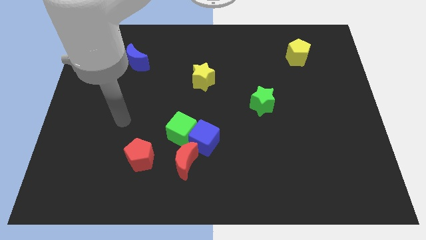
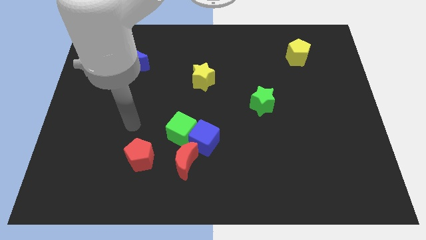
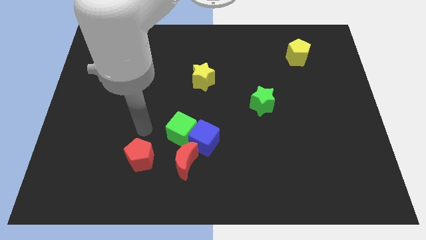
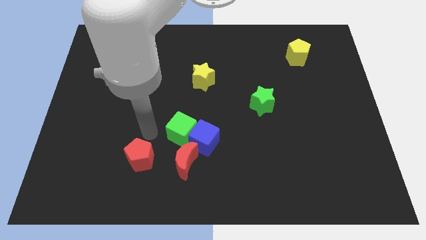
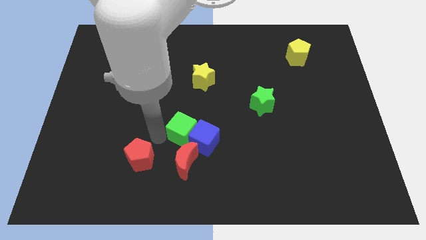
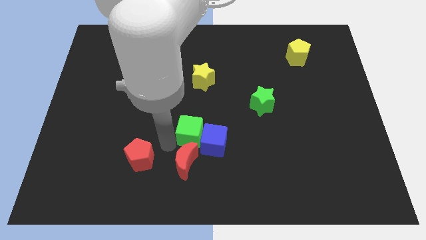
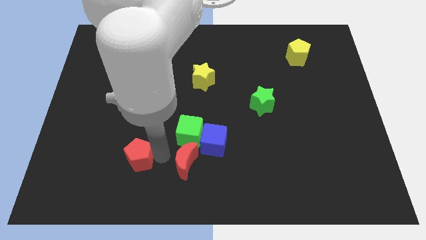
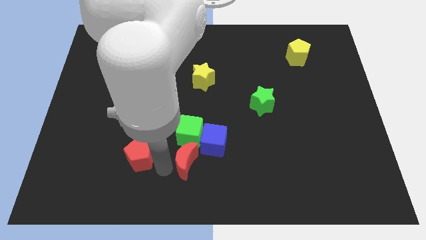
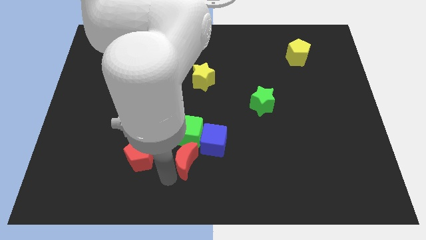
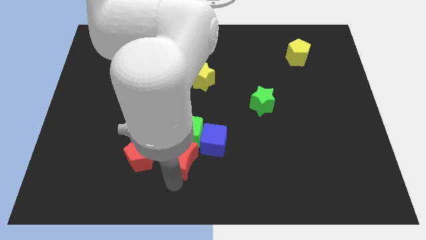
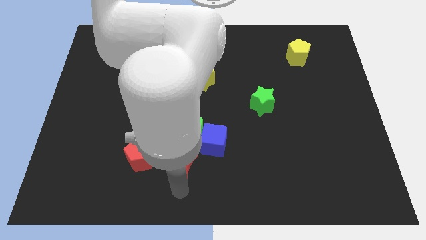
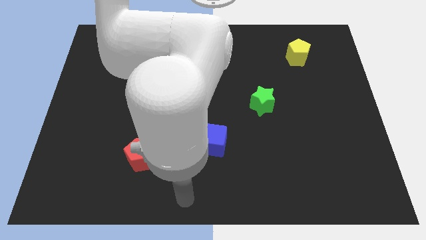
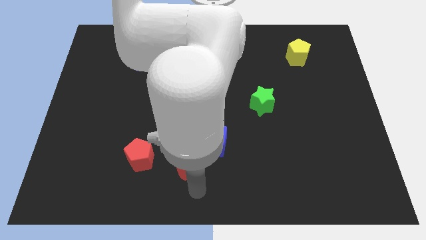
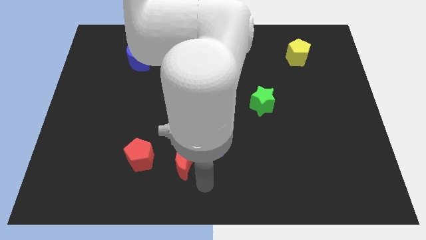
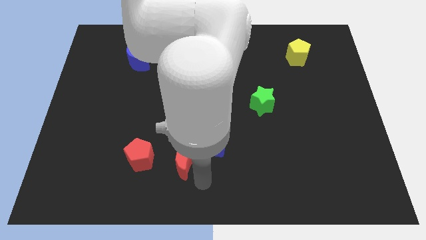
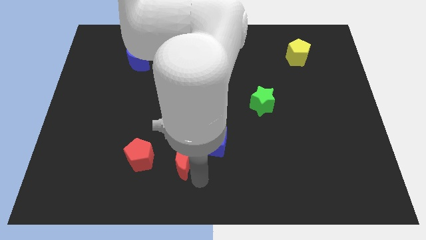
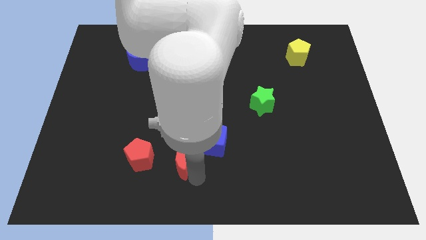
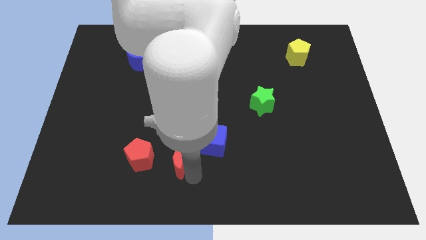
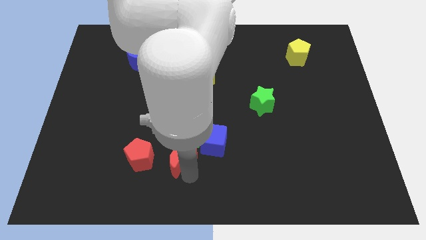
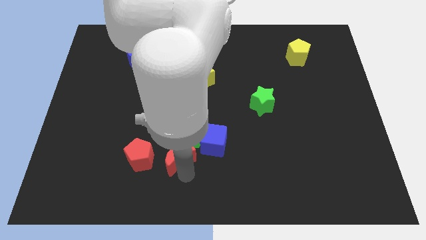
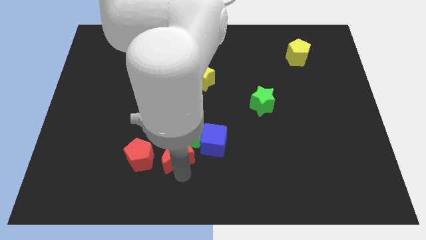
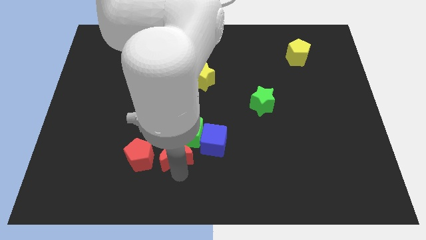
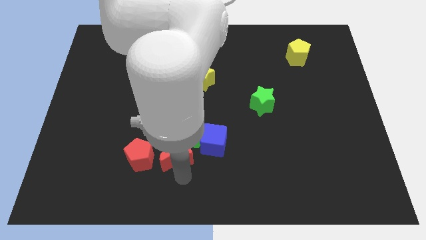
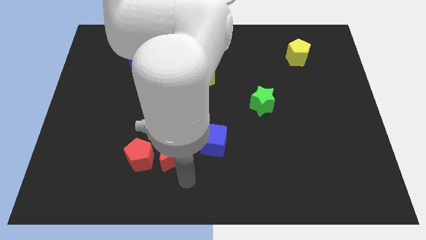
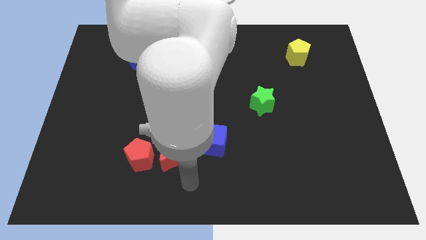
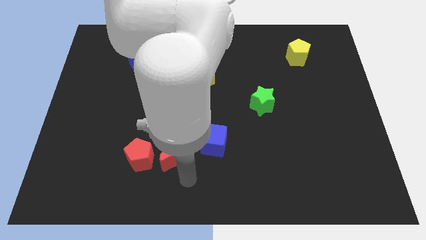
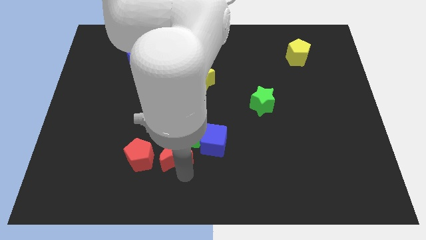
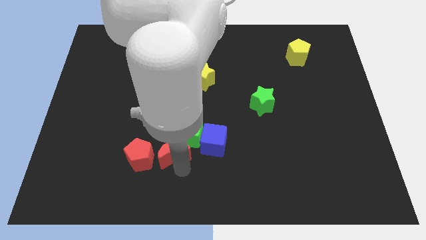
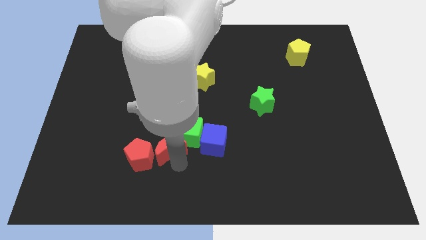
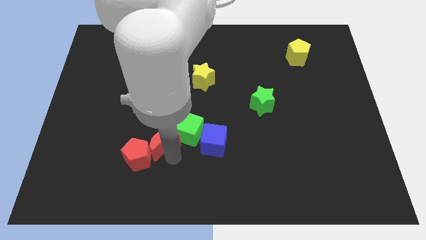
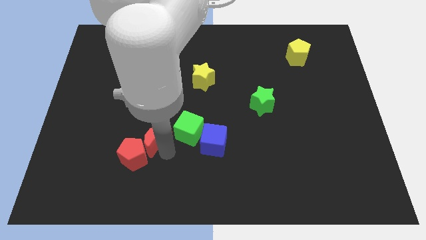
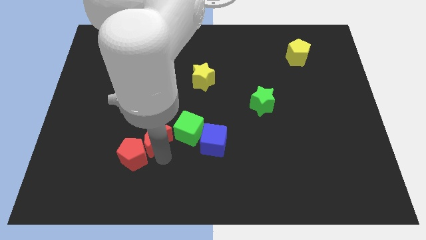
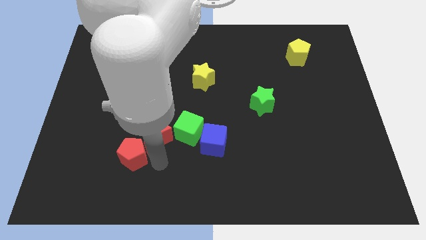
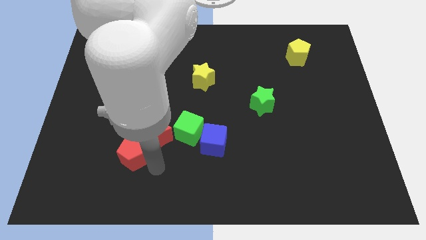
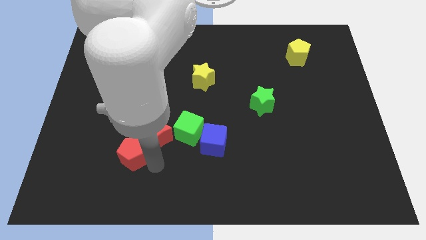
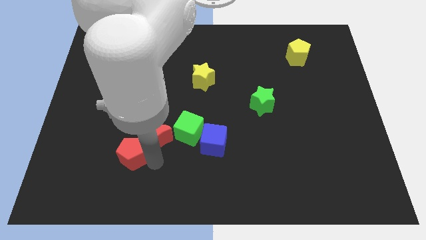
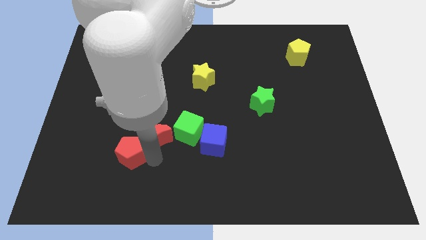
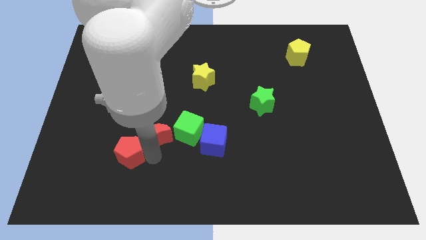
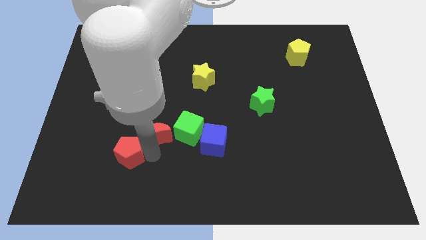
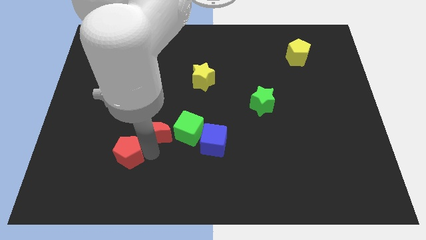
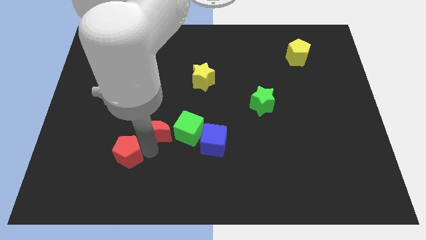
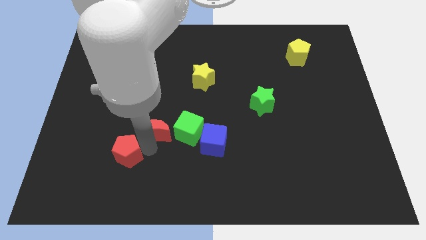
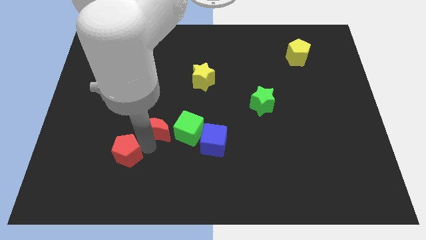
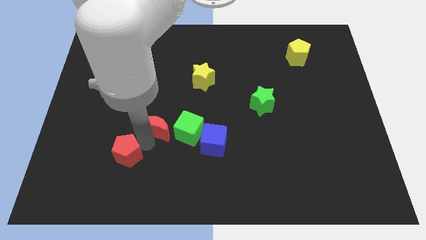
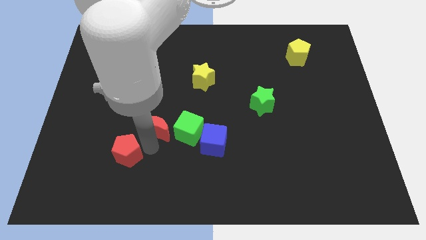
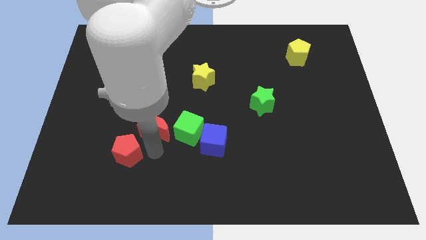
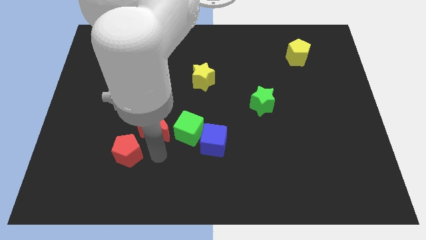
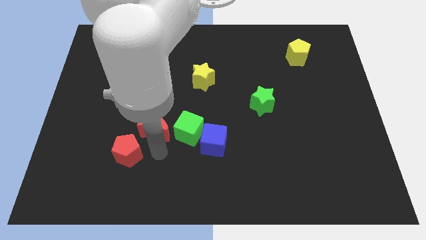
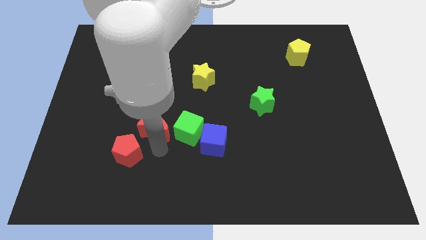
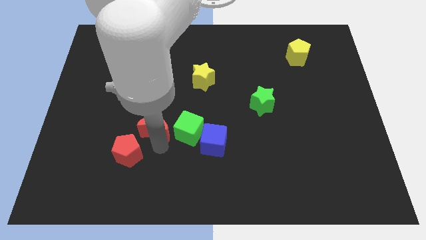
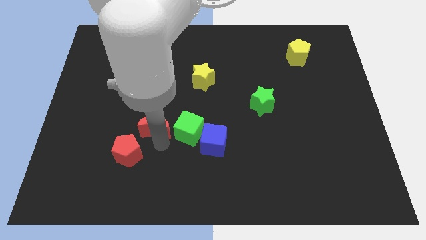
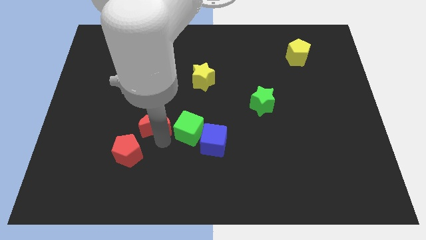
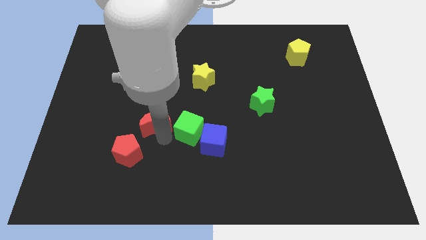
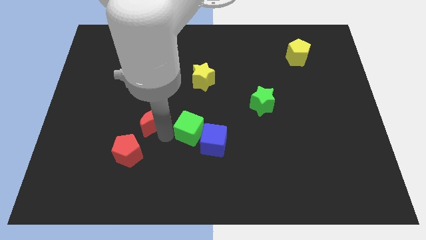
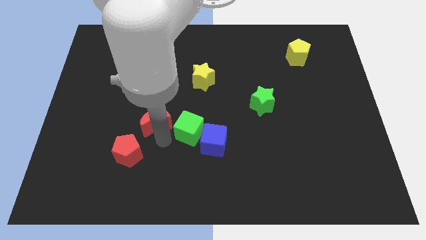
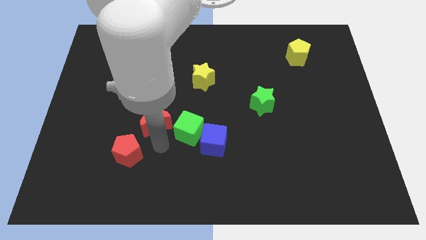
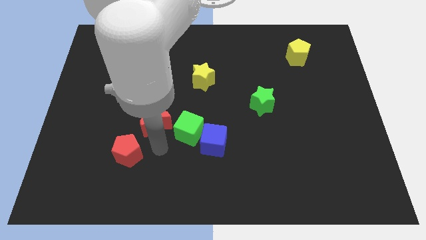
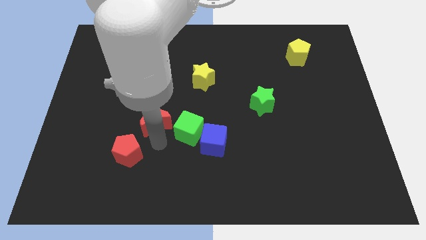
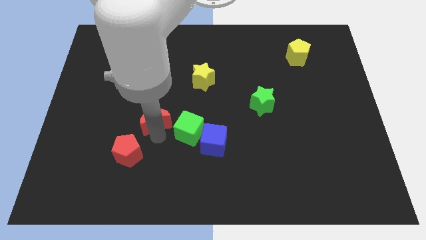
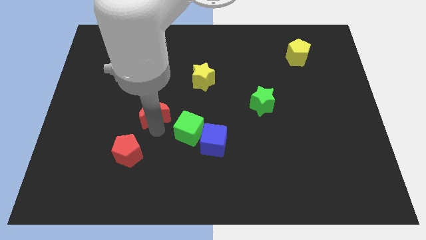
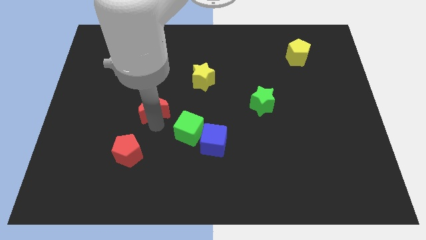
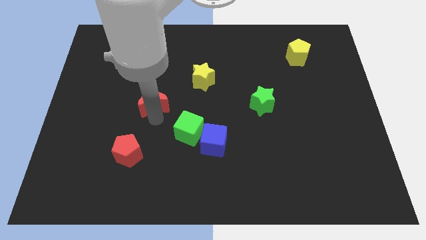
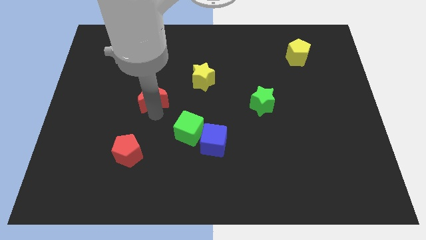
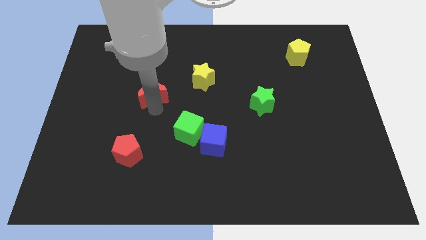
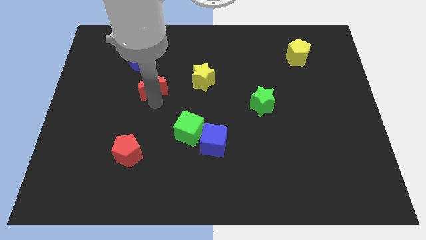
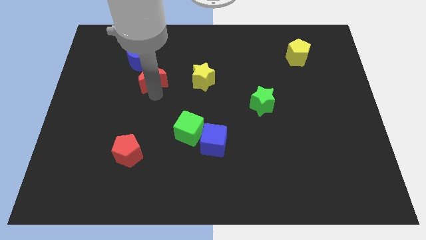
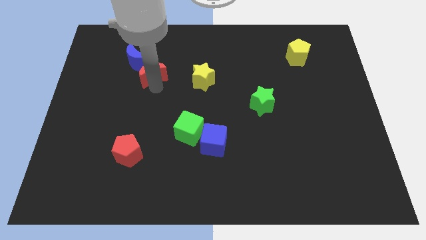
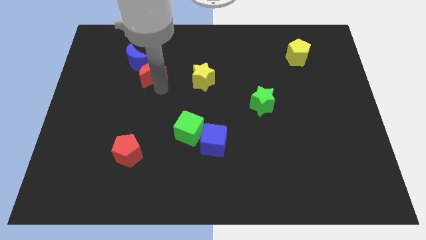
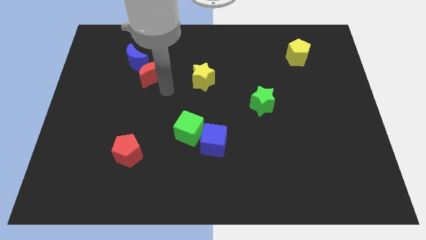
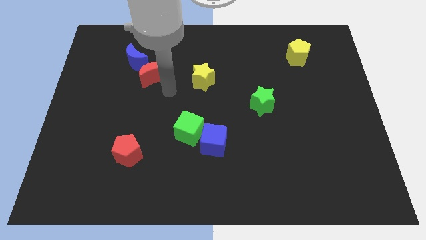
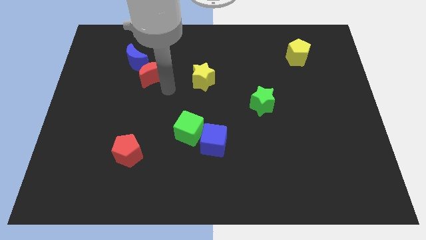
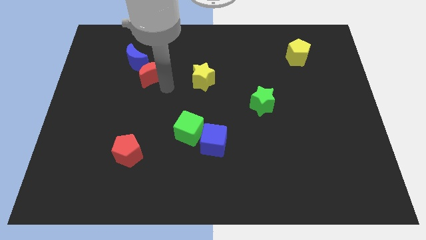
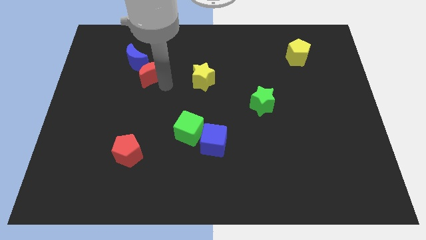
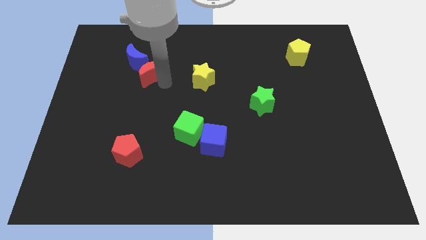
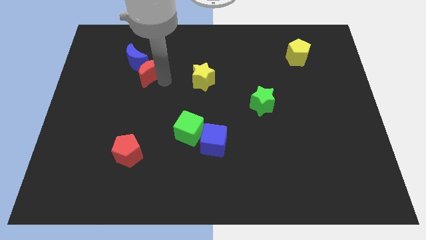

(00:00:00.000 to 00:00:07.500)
slide the red moon towards the blue moon
